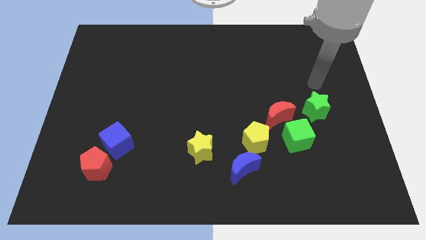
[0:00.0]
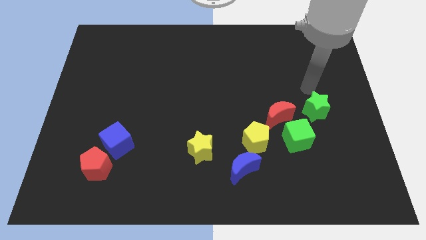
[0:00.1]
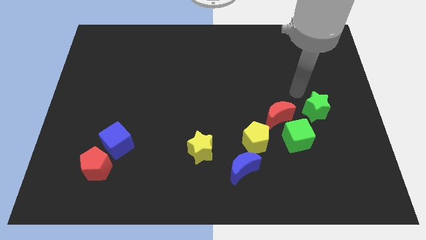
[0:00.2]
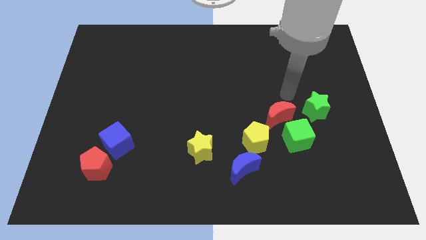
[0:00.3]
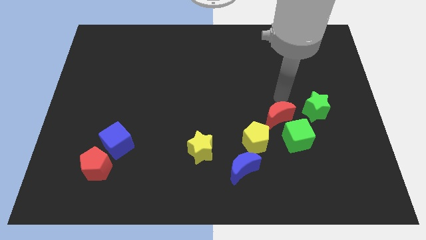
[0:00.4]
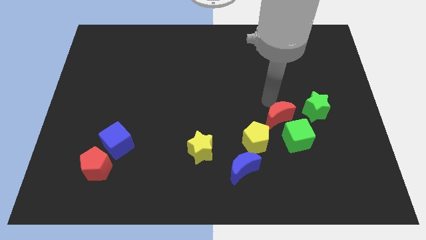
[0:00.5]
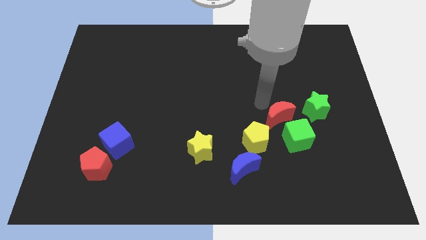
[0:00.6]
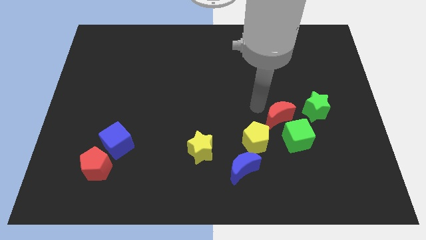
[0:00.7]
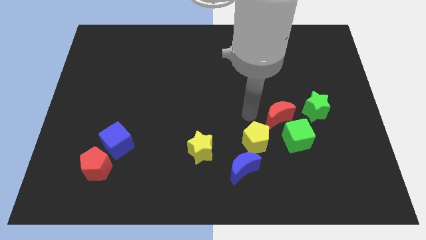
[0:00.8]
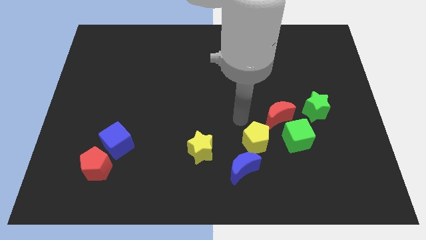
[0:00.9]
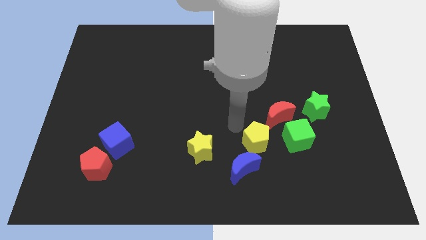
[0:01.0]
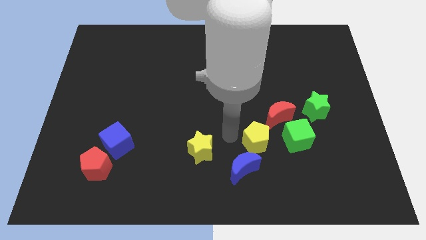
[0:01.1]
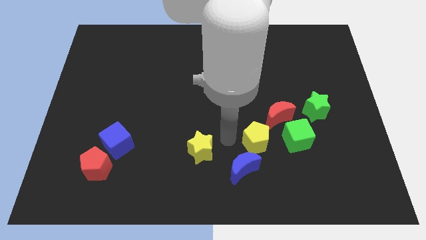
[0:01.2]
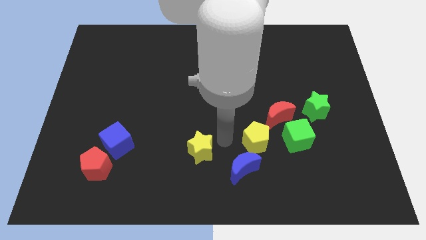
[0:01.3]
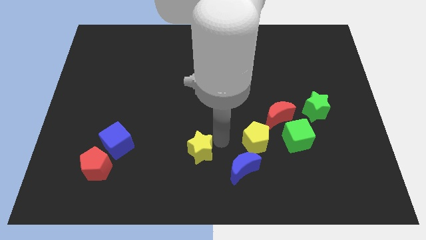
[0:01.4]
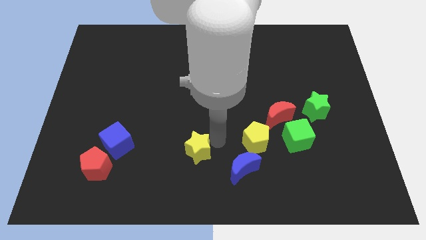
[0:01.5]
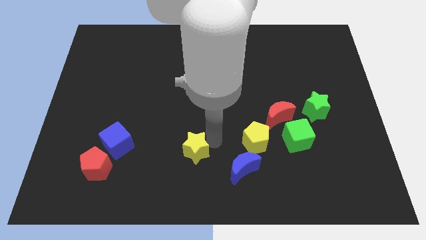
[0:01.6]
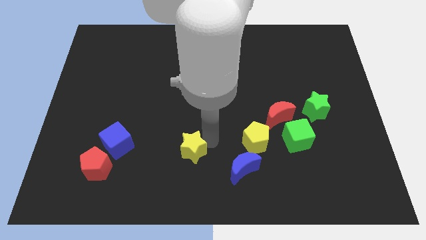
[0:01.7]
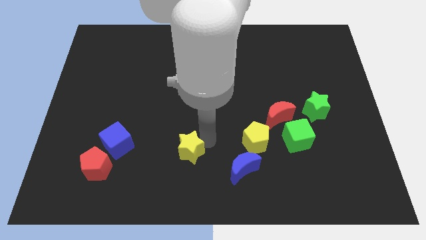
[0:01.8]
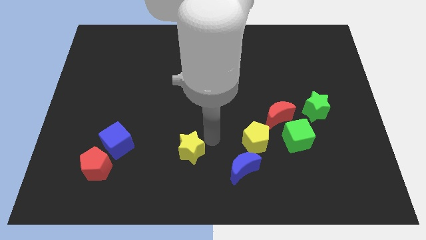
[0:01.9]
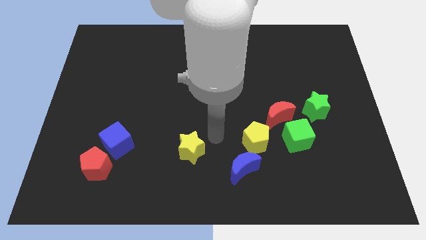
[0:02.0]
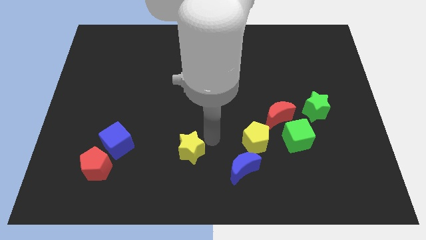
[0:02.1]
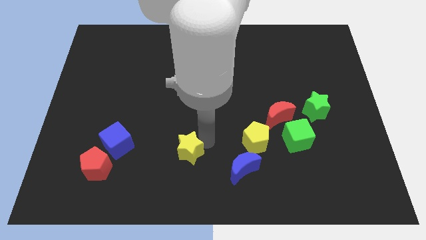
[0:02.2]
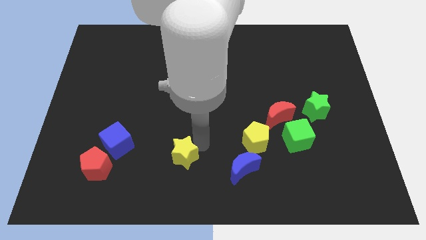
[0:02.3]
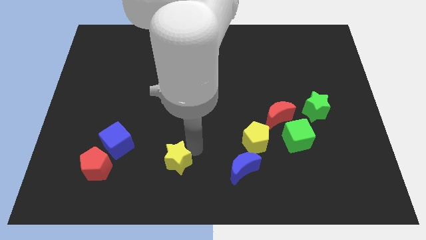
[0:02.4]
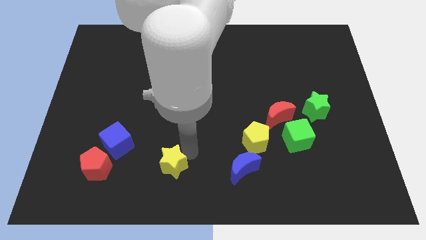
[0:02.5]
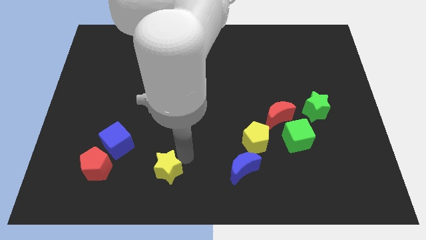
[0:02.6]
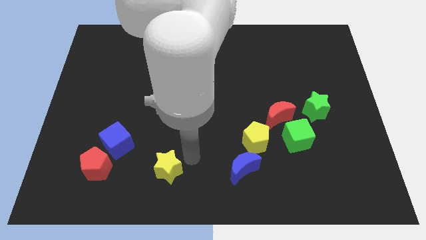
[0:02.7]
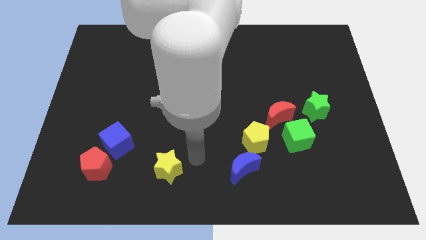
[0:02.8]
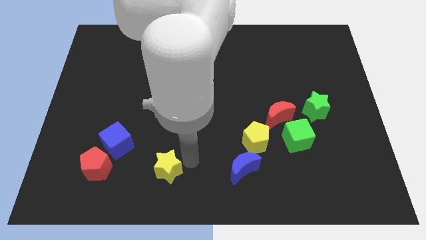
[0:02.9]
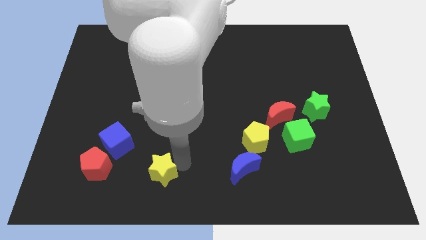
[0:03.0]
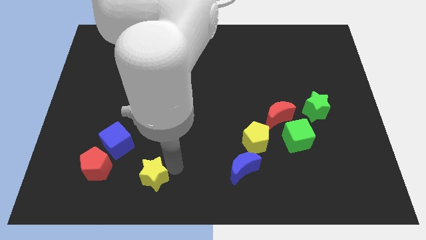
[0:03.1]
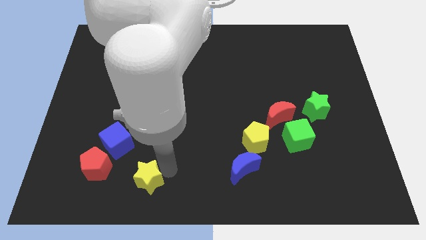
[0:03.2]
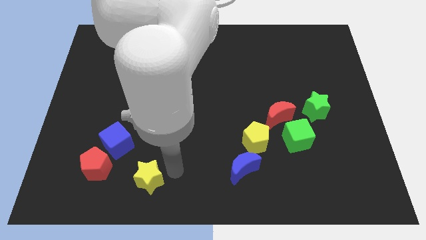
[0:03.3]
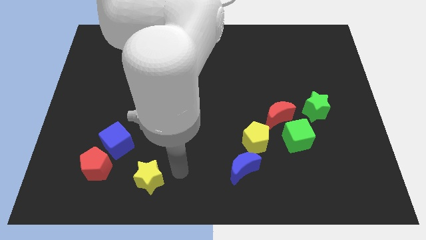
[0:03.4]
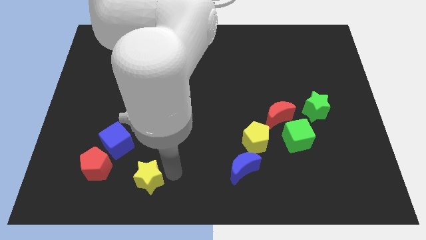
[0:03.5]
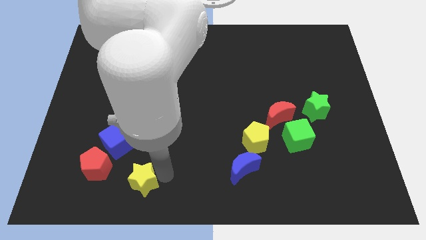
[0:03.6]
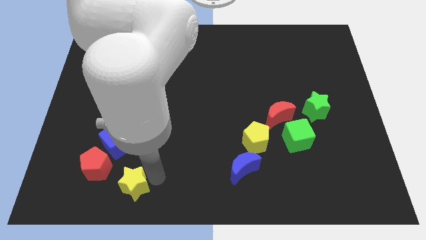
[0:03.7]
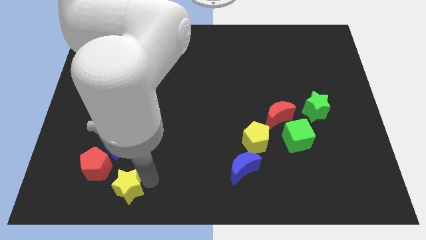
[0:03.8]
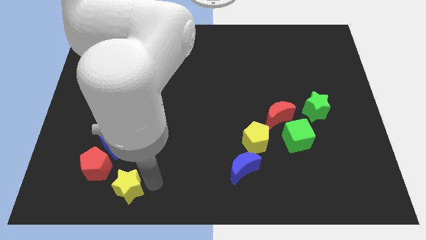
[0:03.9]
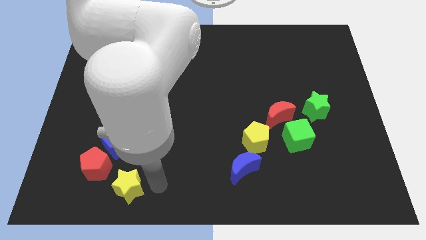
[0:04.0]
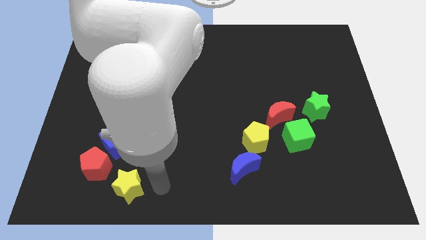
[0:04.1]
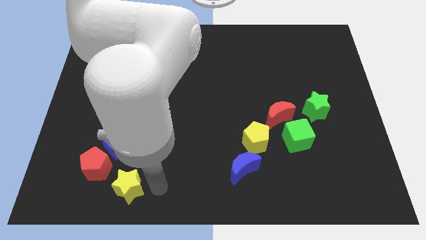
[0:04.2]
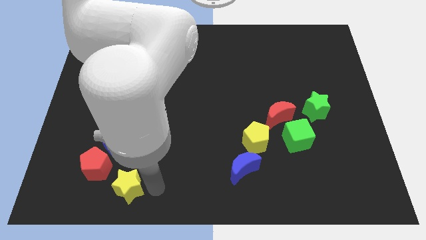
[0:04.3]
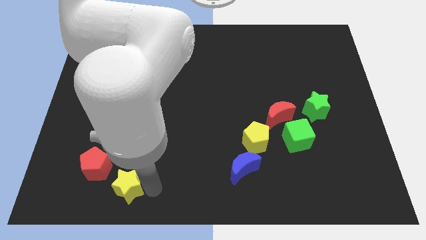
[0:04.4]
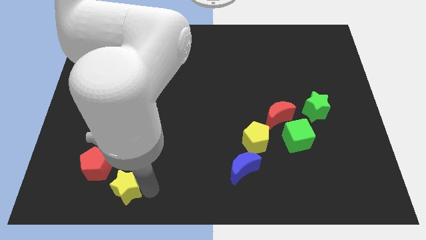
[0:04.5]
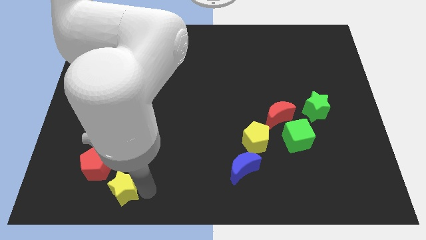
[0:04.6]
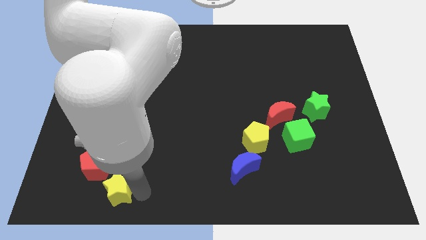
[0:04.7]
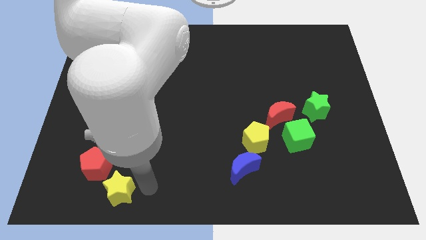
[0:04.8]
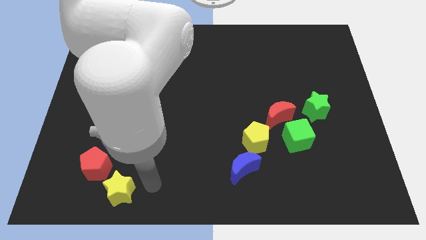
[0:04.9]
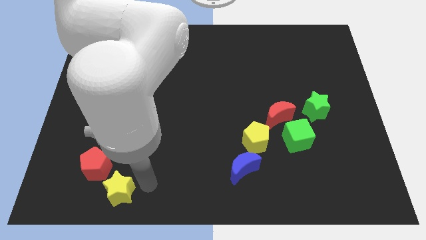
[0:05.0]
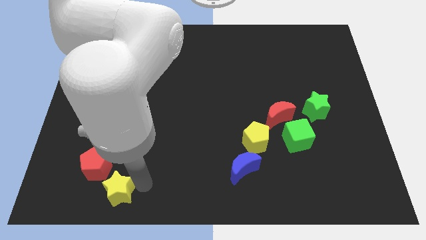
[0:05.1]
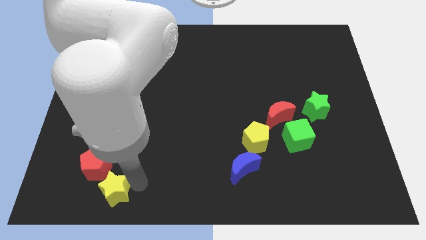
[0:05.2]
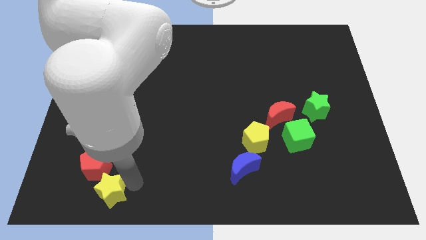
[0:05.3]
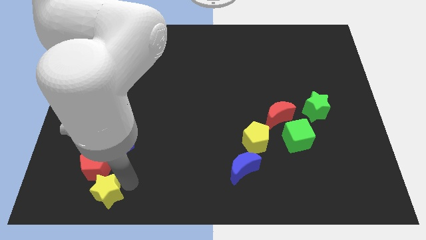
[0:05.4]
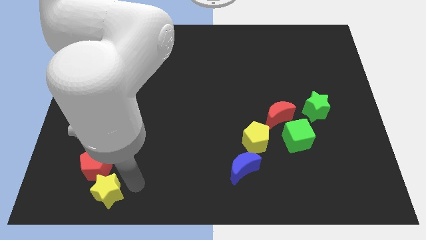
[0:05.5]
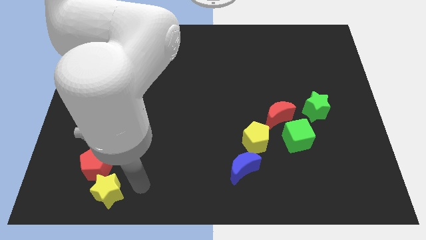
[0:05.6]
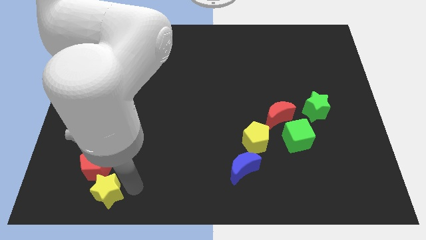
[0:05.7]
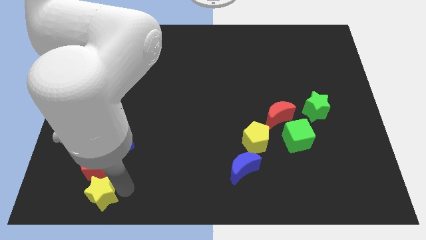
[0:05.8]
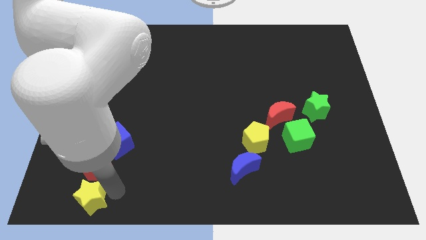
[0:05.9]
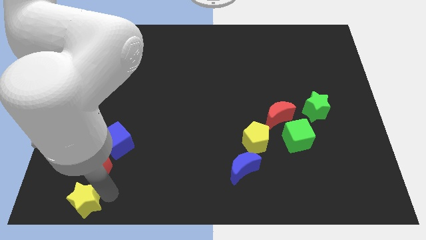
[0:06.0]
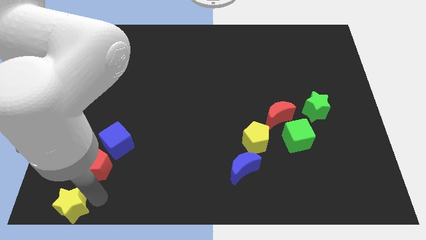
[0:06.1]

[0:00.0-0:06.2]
move the yellow star to the bottom left of the board

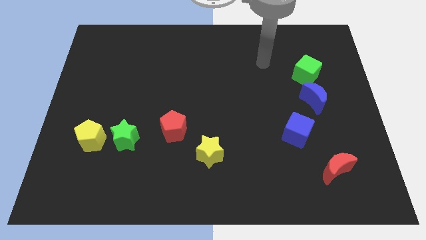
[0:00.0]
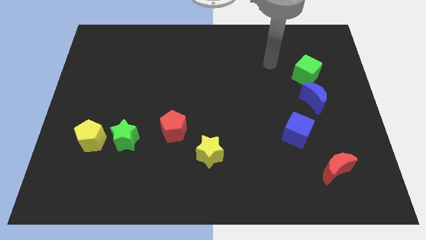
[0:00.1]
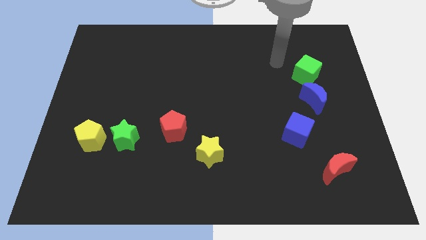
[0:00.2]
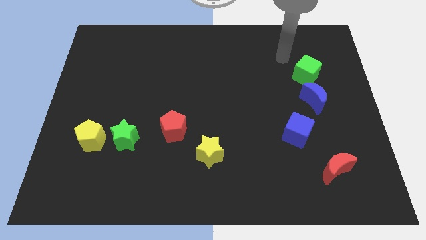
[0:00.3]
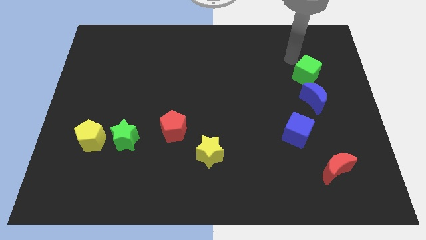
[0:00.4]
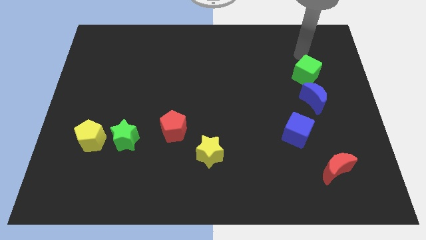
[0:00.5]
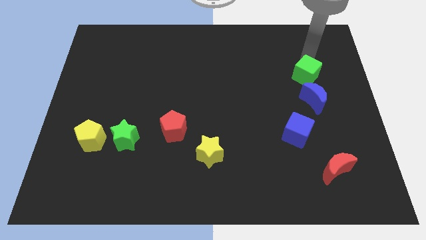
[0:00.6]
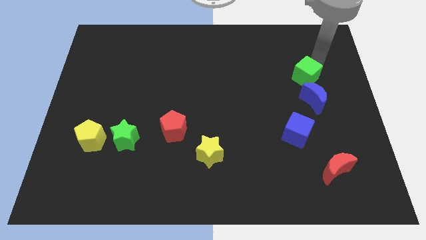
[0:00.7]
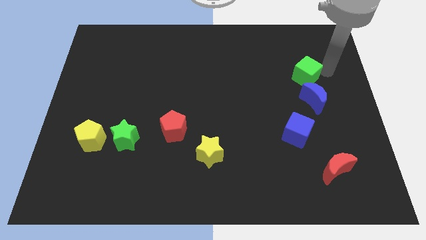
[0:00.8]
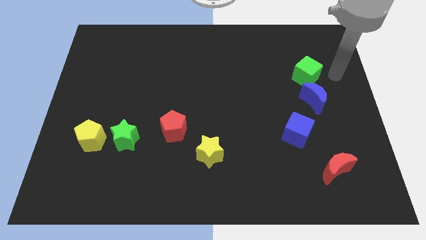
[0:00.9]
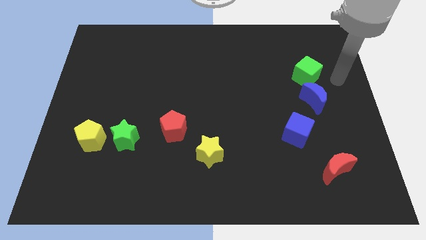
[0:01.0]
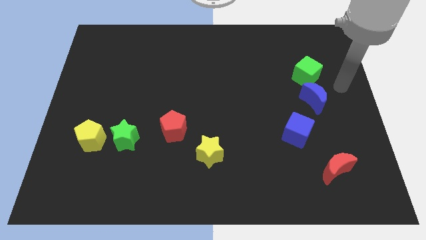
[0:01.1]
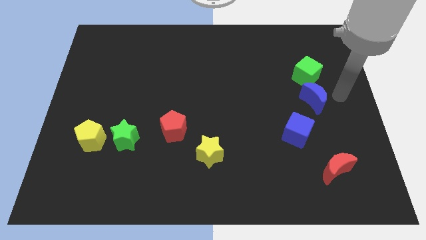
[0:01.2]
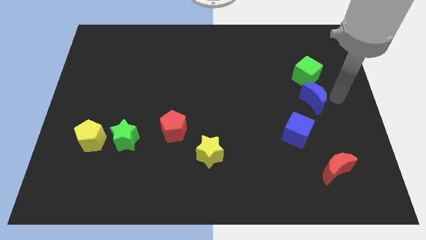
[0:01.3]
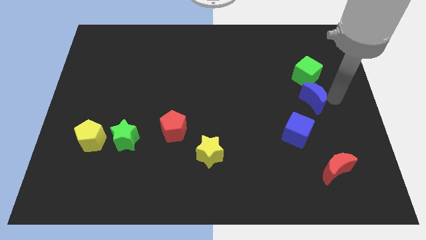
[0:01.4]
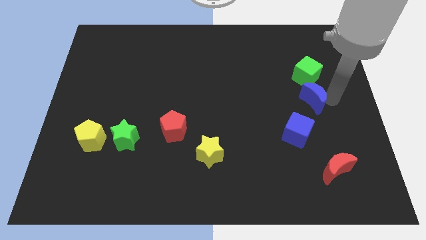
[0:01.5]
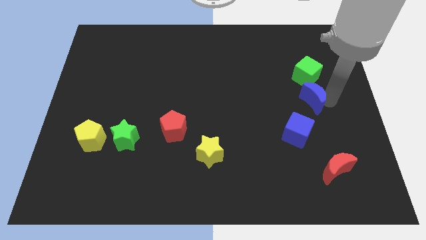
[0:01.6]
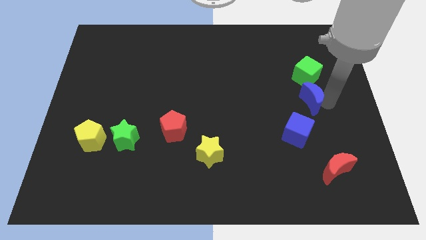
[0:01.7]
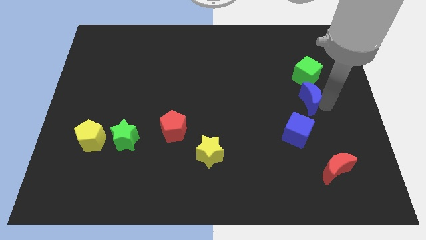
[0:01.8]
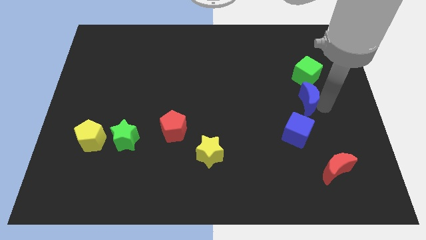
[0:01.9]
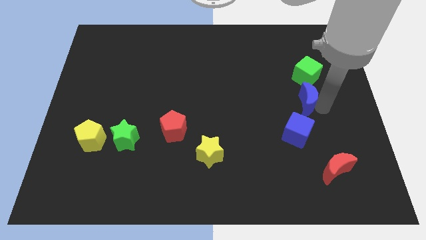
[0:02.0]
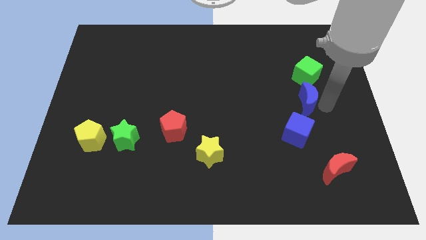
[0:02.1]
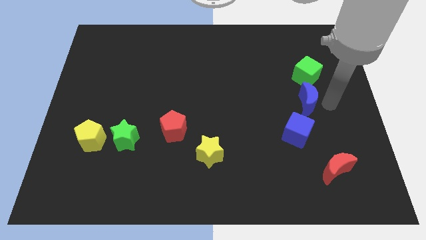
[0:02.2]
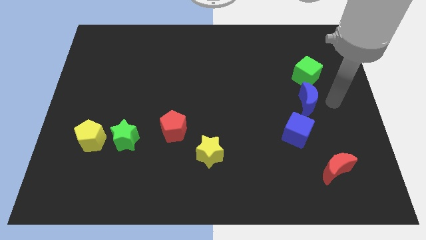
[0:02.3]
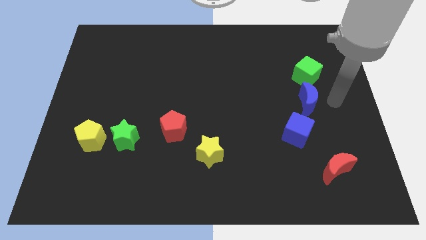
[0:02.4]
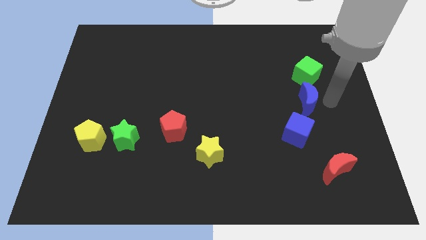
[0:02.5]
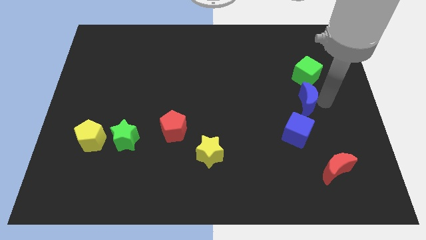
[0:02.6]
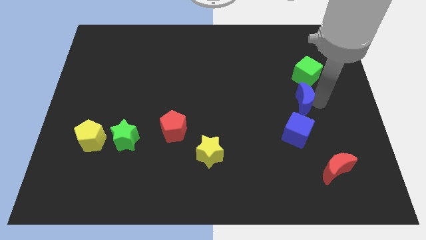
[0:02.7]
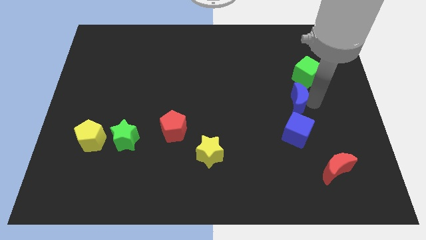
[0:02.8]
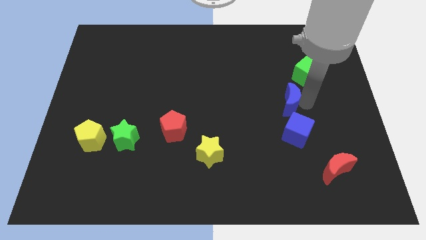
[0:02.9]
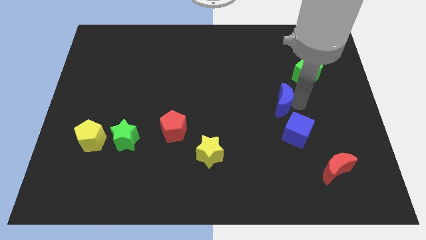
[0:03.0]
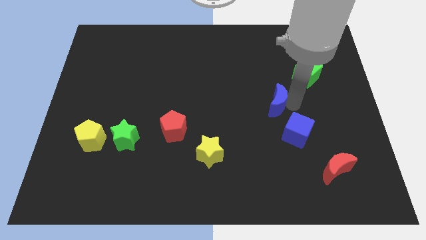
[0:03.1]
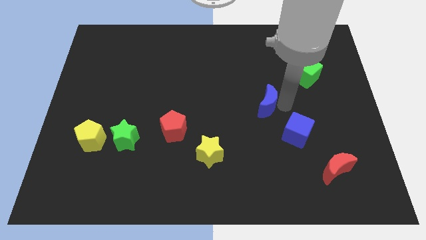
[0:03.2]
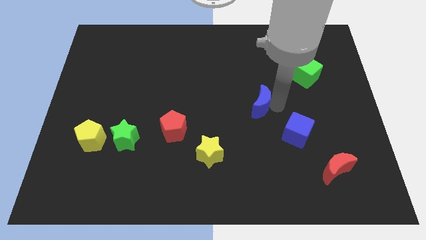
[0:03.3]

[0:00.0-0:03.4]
slide the blue moon to the middle
